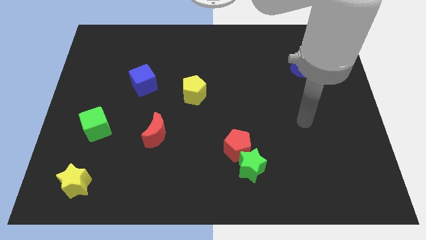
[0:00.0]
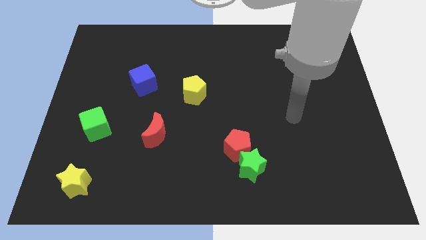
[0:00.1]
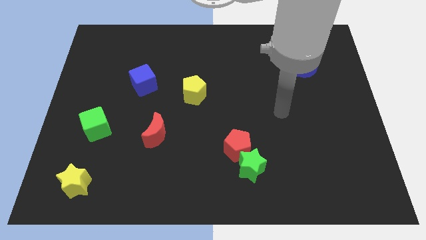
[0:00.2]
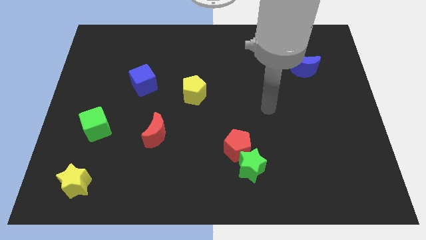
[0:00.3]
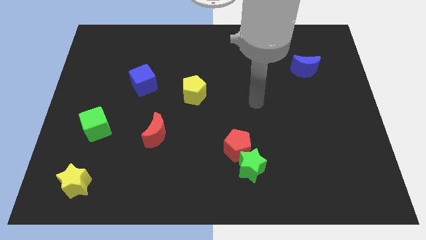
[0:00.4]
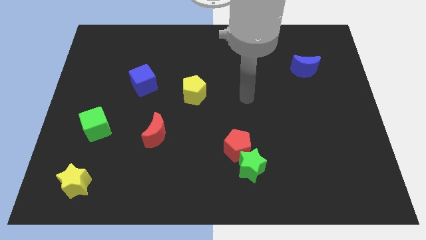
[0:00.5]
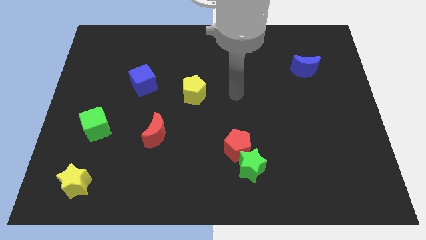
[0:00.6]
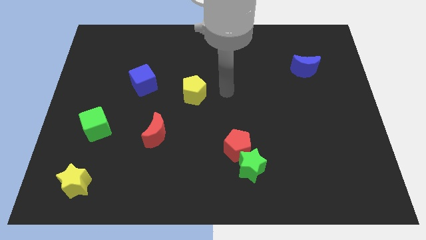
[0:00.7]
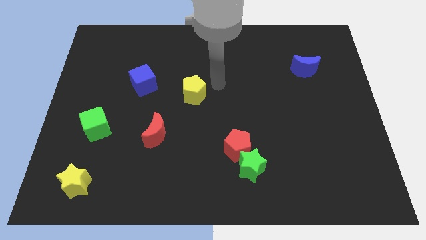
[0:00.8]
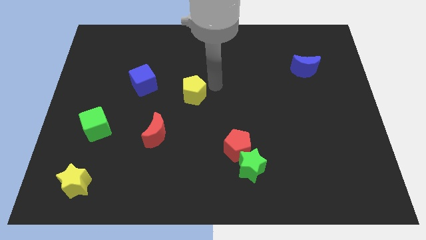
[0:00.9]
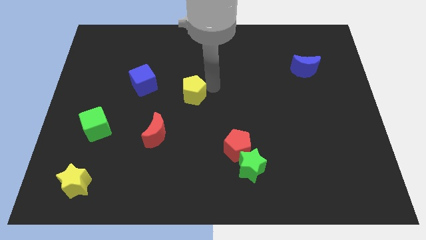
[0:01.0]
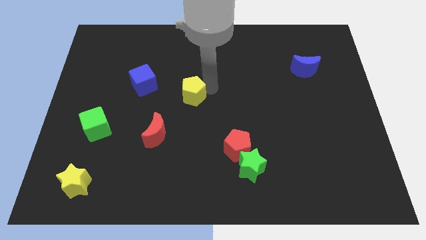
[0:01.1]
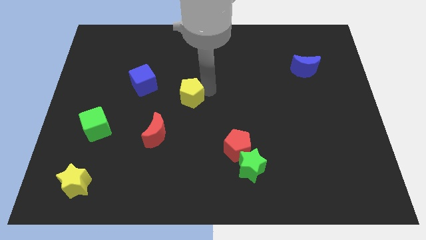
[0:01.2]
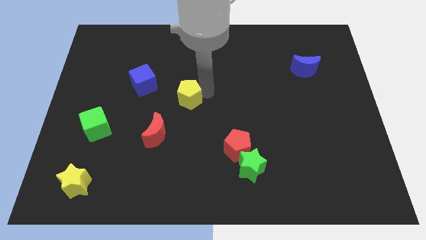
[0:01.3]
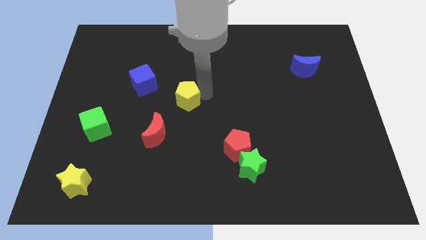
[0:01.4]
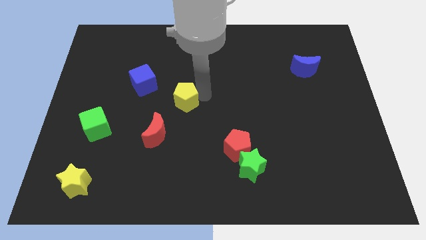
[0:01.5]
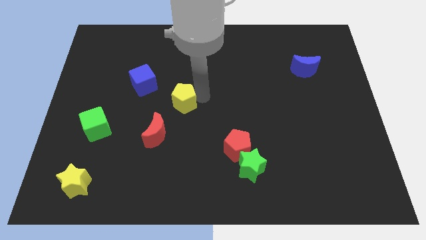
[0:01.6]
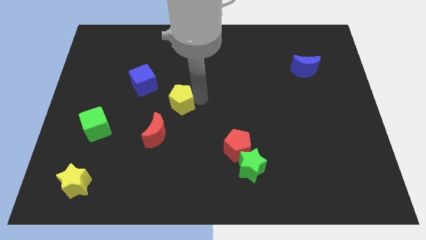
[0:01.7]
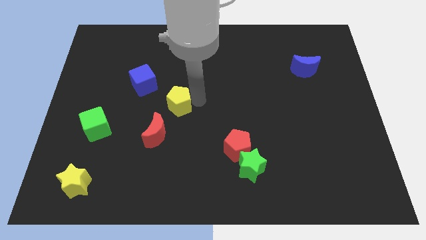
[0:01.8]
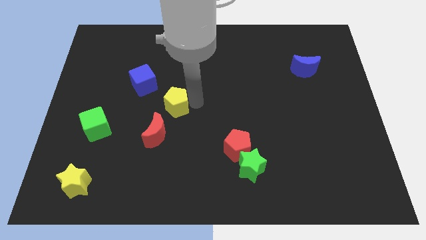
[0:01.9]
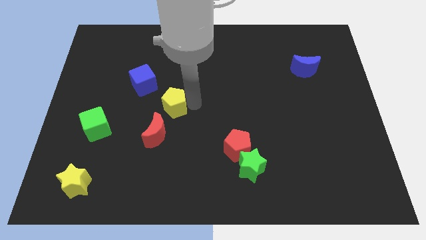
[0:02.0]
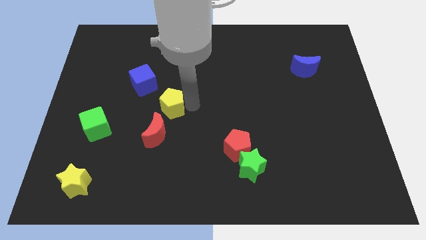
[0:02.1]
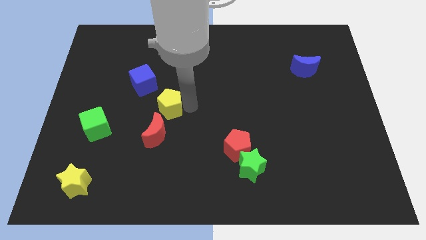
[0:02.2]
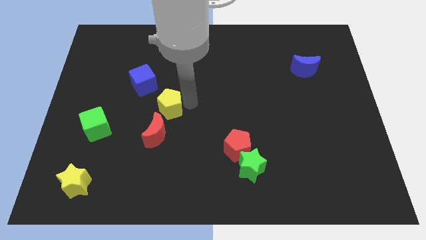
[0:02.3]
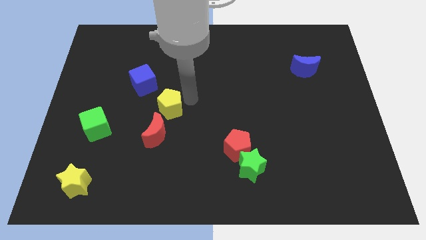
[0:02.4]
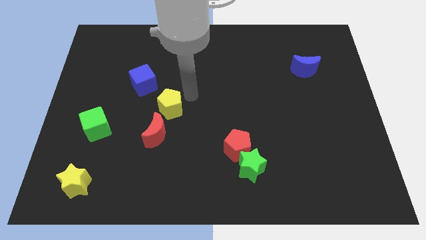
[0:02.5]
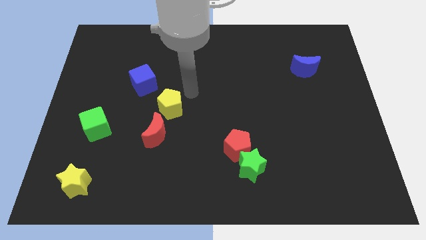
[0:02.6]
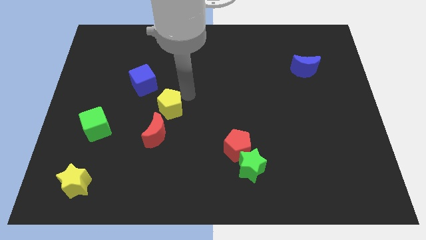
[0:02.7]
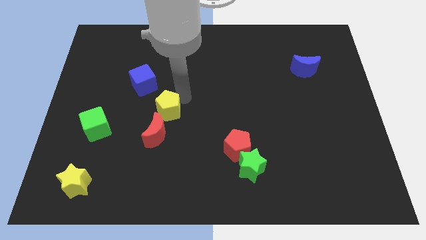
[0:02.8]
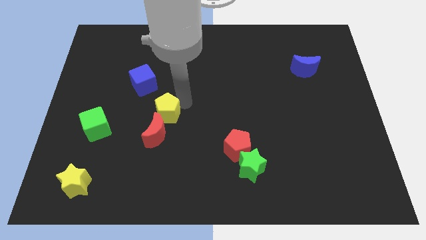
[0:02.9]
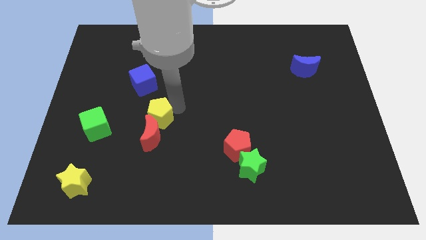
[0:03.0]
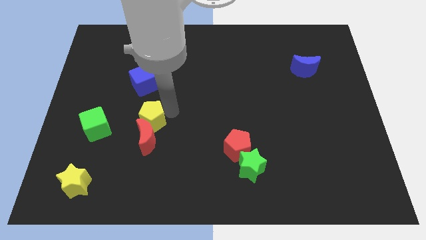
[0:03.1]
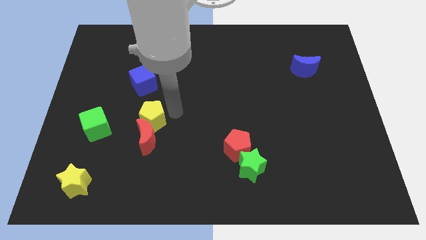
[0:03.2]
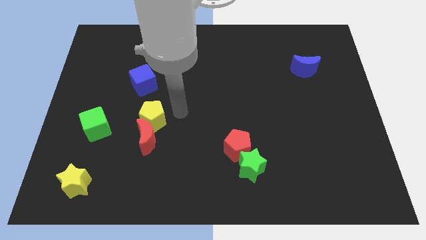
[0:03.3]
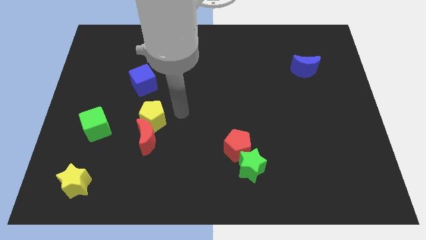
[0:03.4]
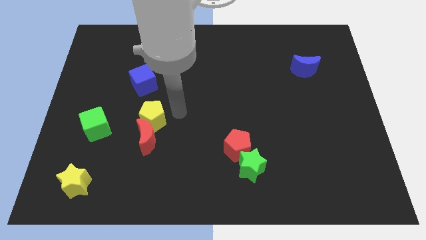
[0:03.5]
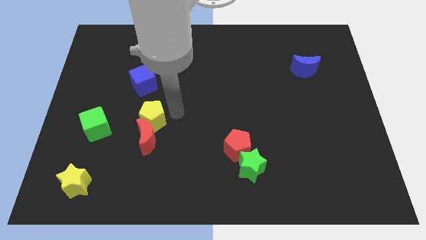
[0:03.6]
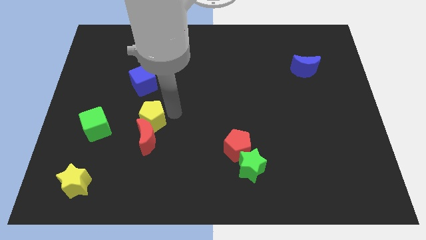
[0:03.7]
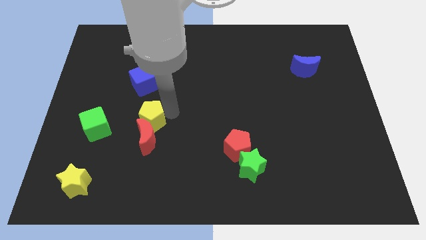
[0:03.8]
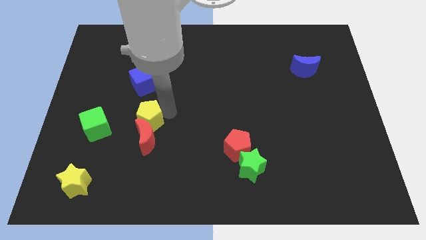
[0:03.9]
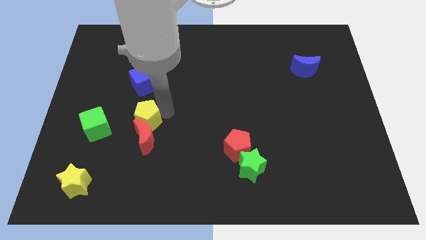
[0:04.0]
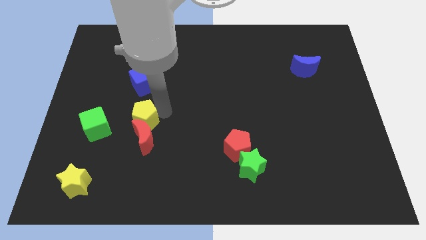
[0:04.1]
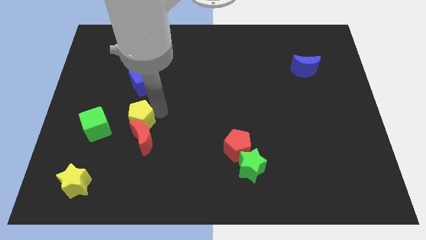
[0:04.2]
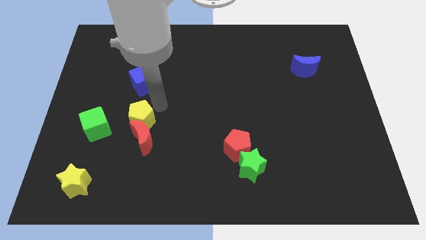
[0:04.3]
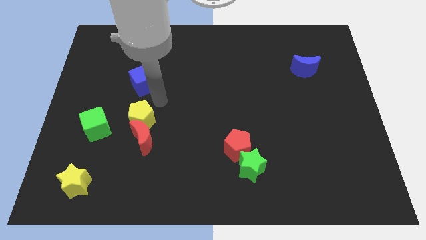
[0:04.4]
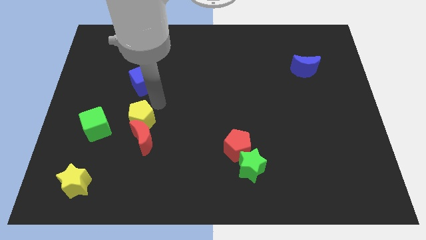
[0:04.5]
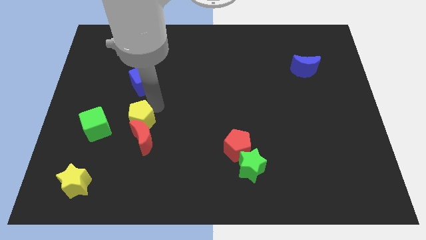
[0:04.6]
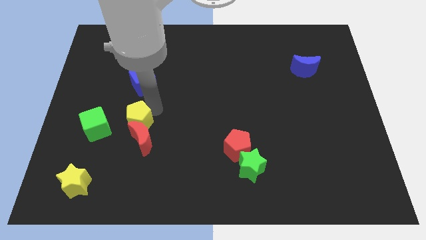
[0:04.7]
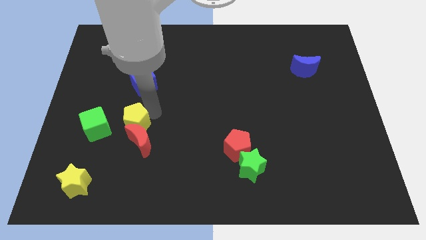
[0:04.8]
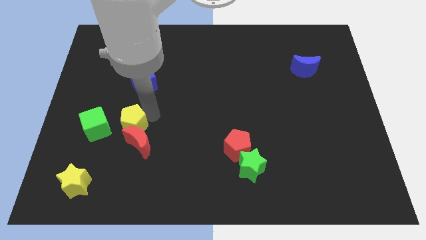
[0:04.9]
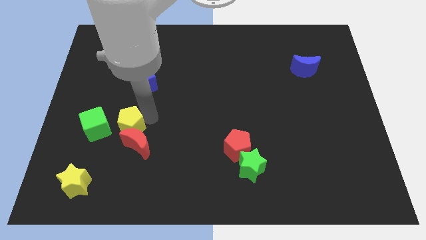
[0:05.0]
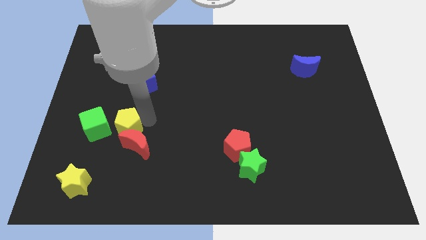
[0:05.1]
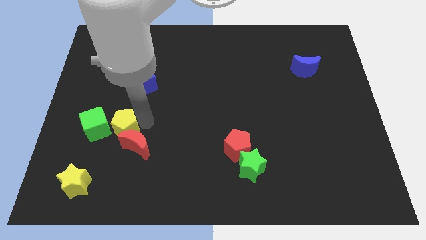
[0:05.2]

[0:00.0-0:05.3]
move the yellow pentagon diagonally down and to the right of the green cube

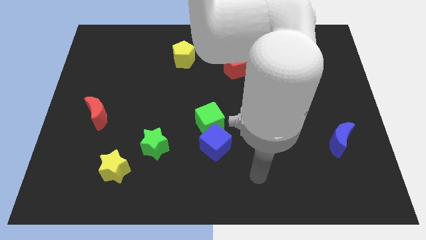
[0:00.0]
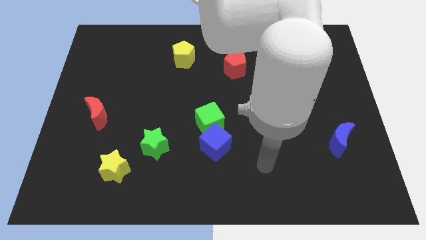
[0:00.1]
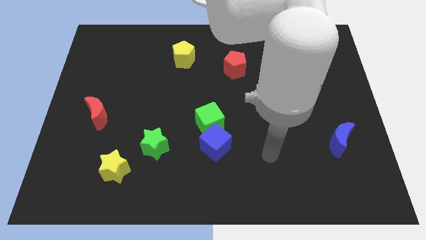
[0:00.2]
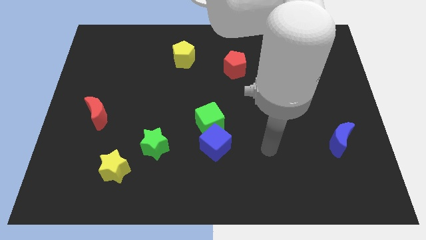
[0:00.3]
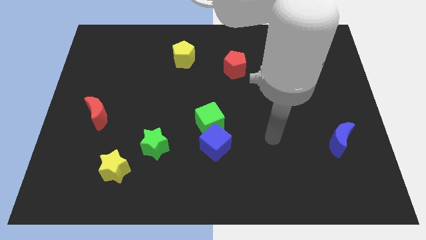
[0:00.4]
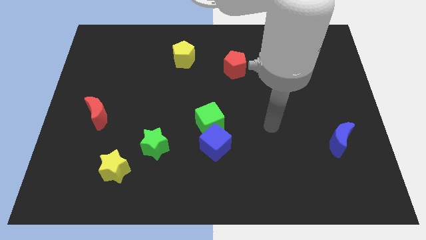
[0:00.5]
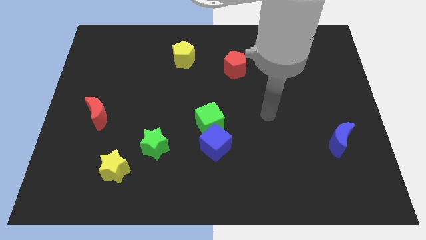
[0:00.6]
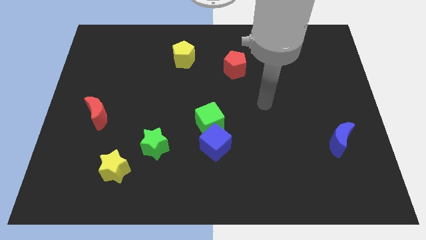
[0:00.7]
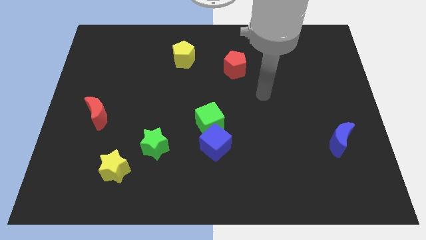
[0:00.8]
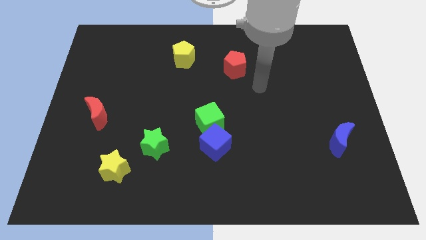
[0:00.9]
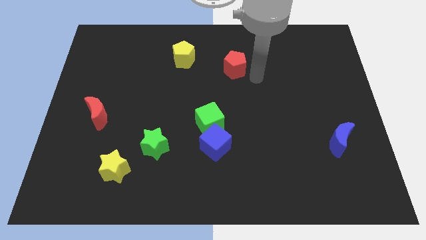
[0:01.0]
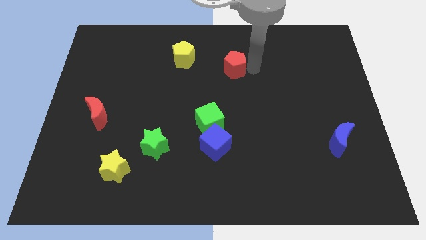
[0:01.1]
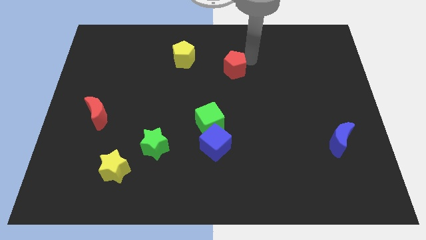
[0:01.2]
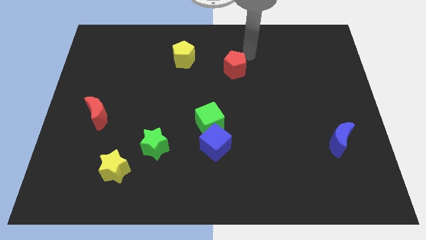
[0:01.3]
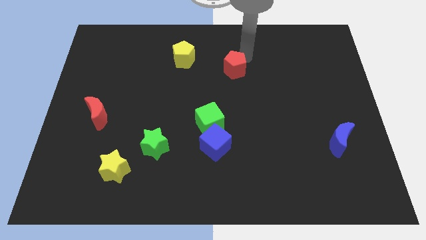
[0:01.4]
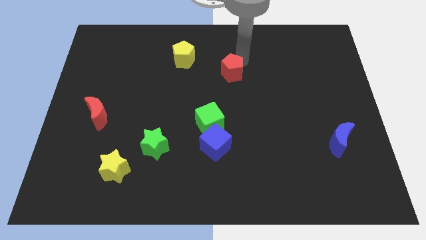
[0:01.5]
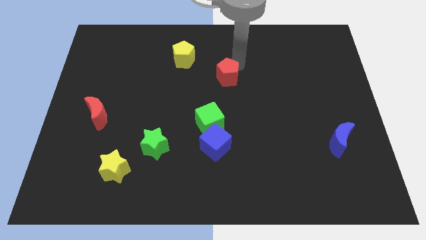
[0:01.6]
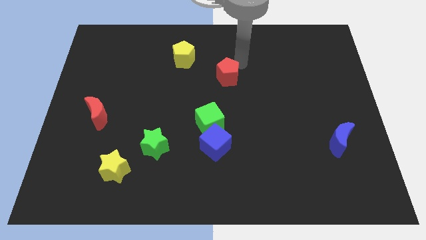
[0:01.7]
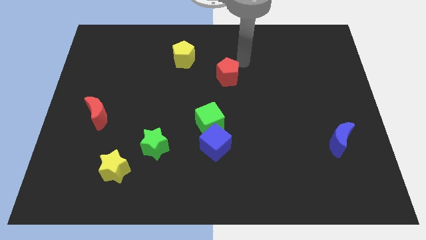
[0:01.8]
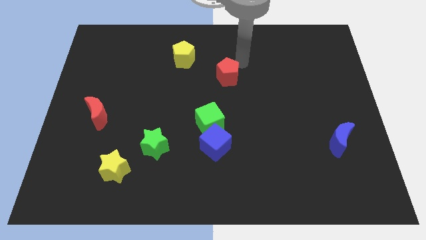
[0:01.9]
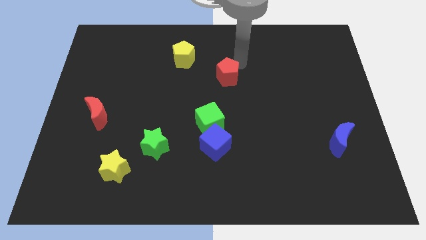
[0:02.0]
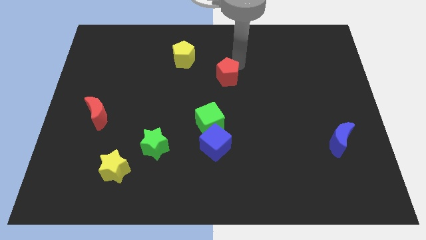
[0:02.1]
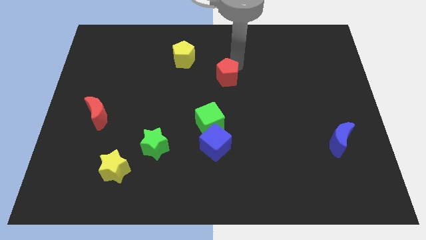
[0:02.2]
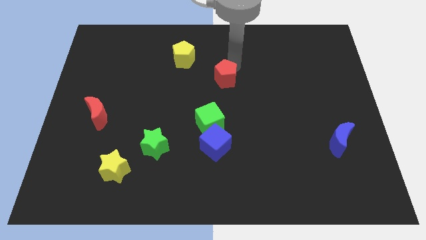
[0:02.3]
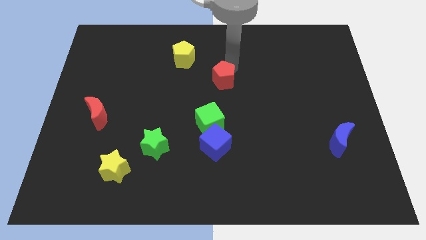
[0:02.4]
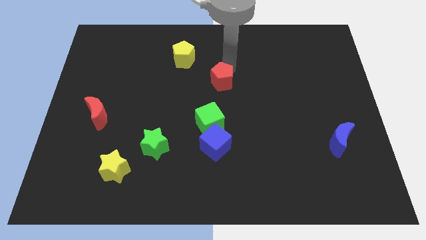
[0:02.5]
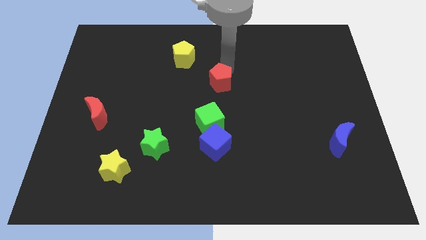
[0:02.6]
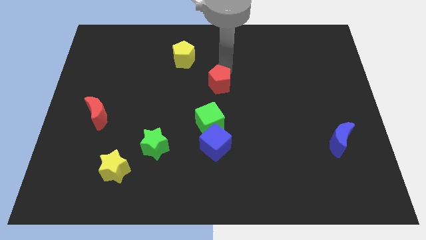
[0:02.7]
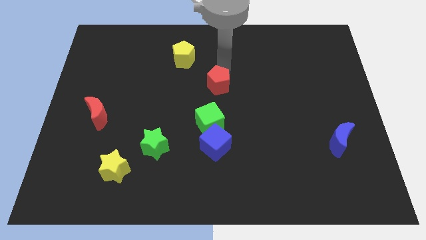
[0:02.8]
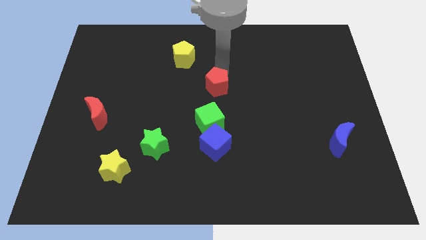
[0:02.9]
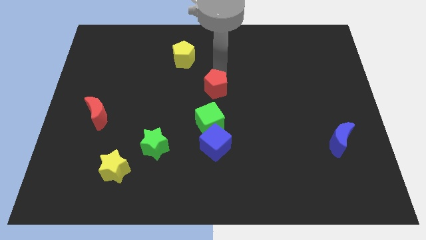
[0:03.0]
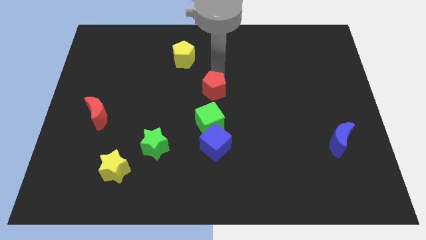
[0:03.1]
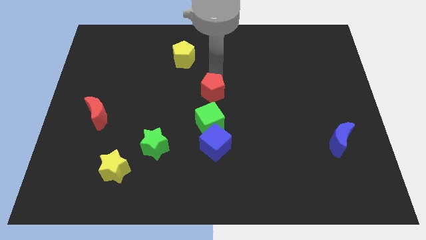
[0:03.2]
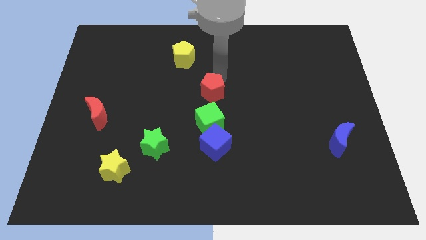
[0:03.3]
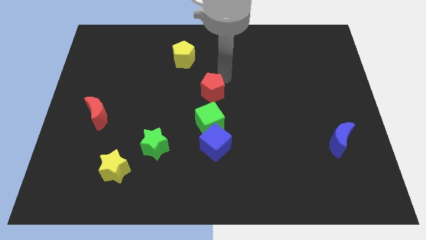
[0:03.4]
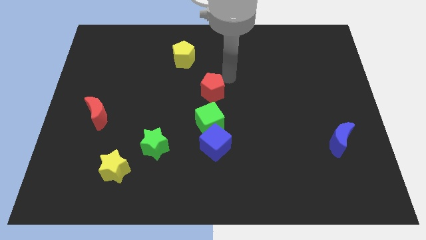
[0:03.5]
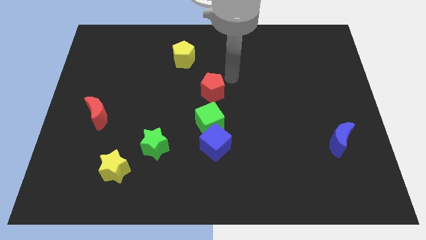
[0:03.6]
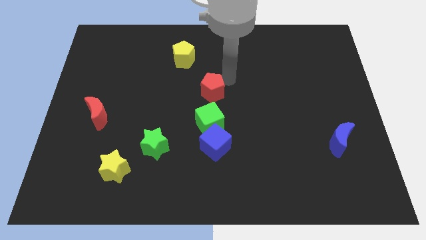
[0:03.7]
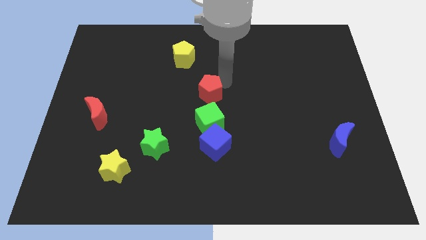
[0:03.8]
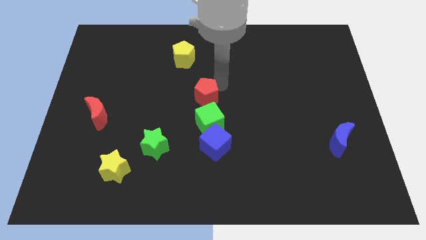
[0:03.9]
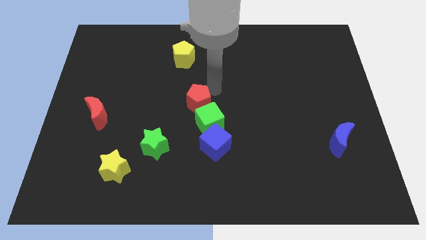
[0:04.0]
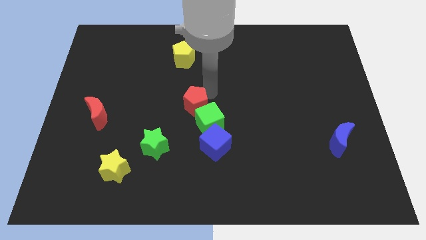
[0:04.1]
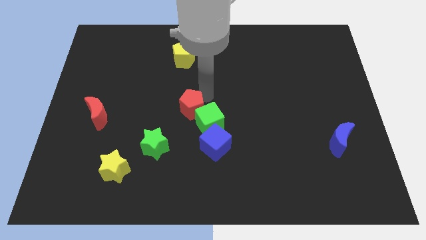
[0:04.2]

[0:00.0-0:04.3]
move the red pentagon to the top left side of the blue cube
